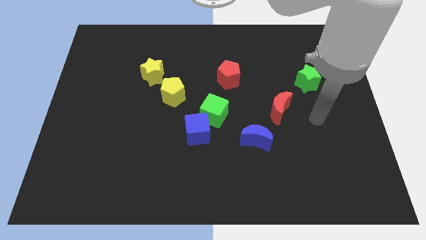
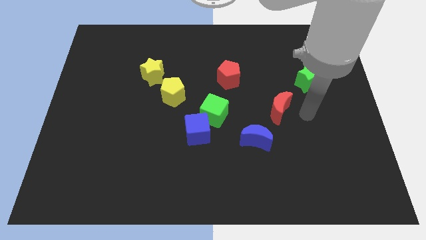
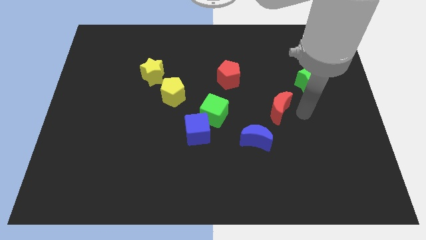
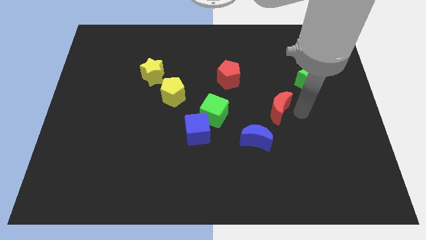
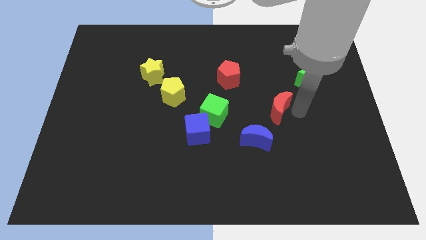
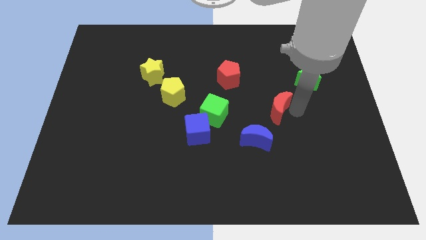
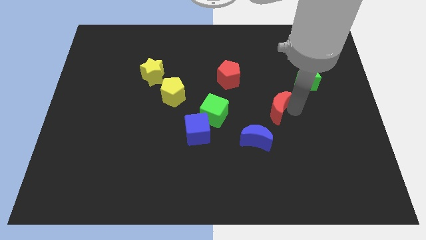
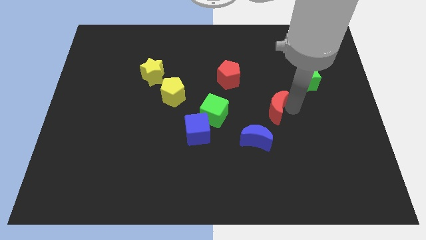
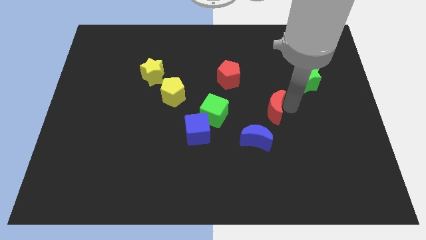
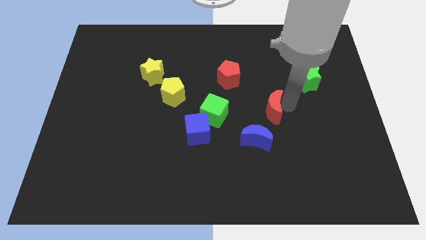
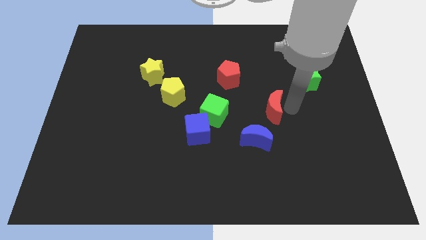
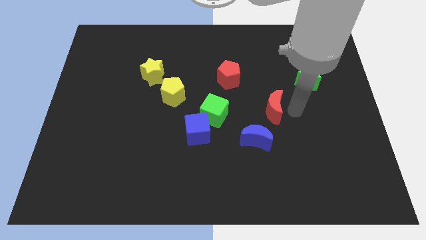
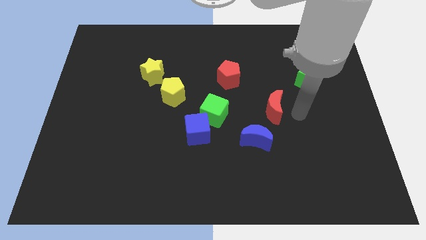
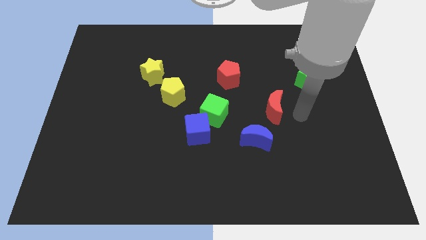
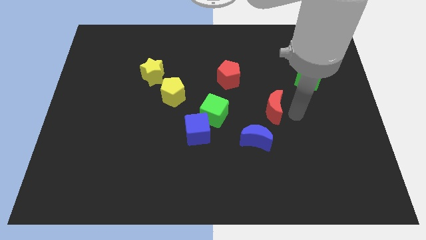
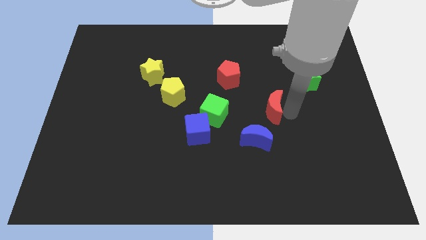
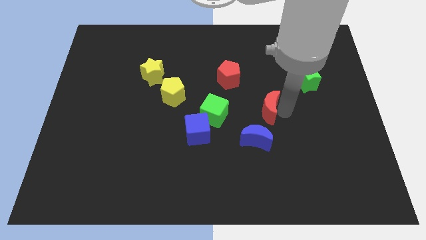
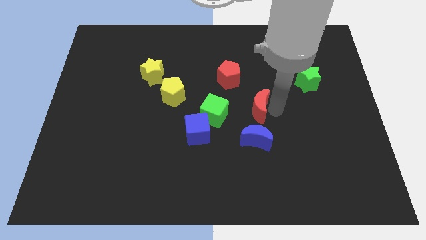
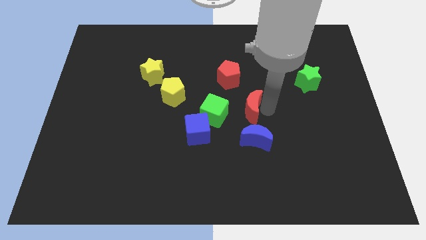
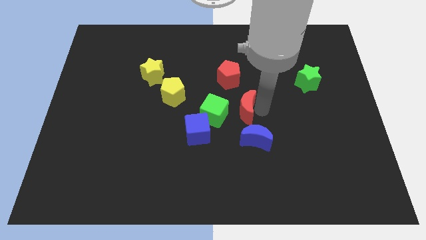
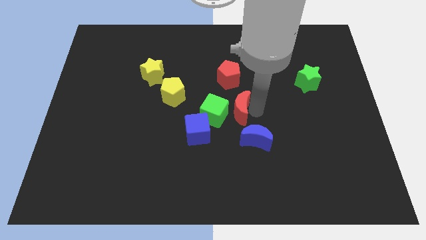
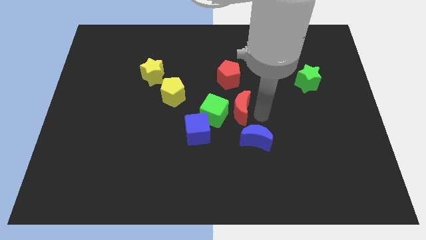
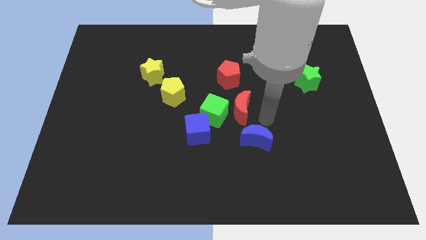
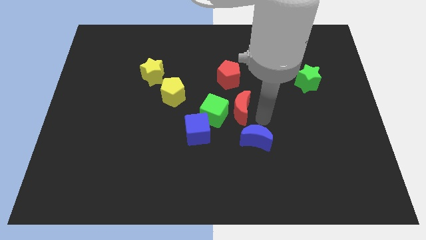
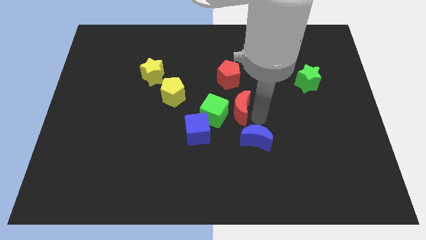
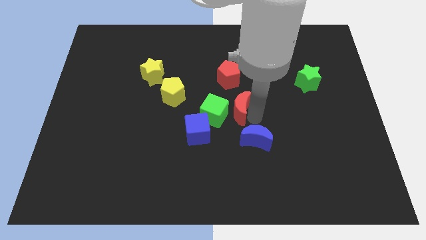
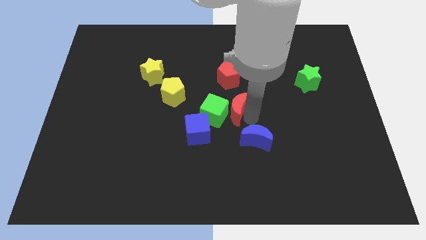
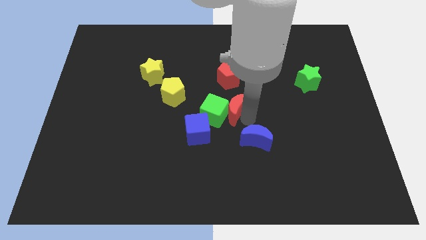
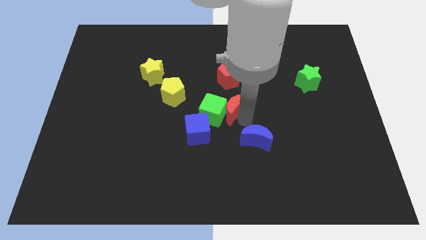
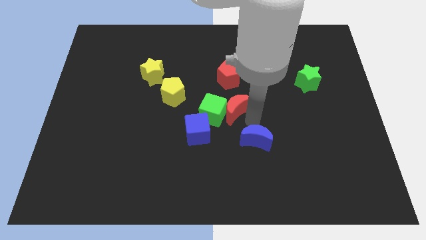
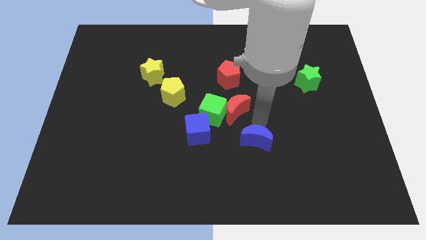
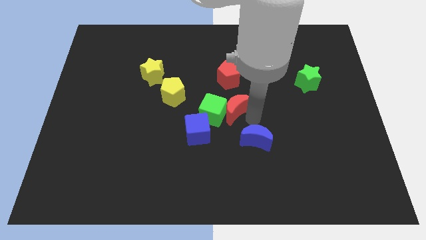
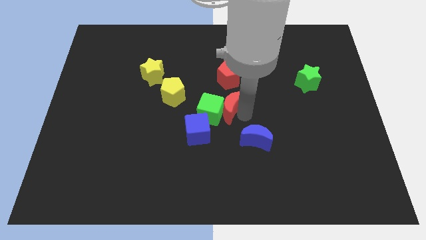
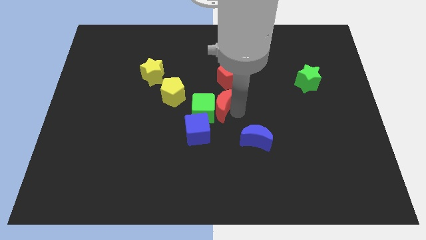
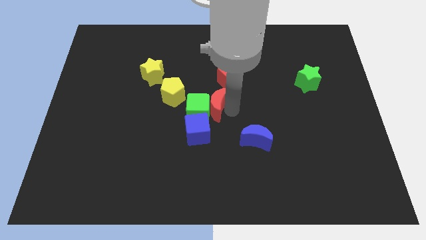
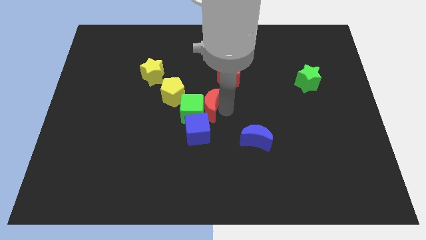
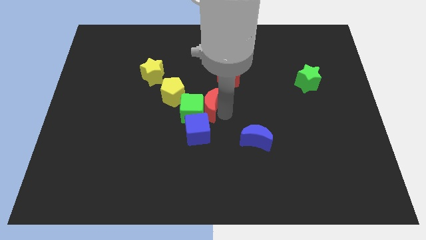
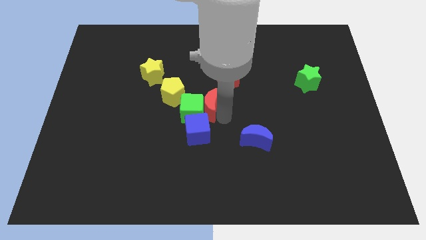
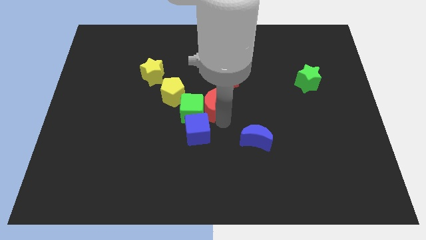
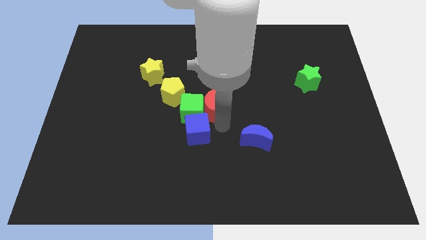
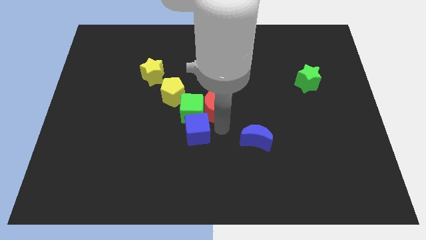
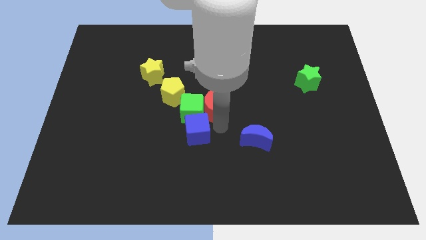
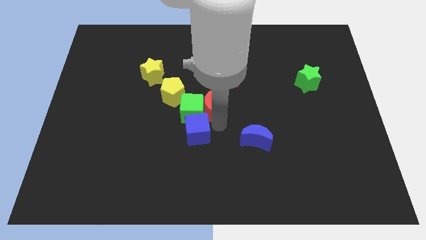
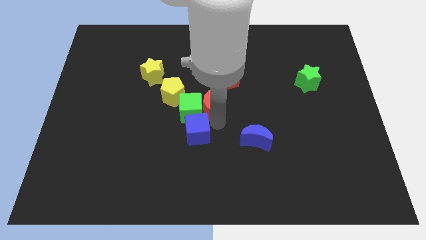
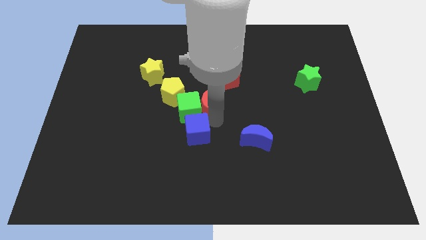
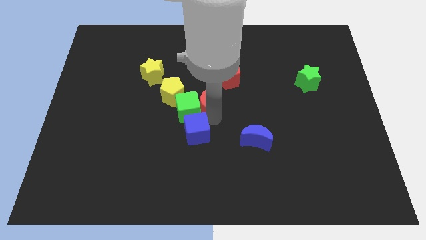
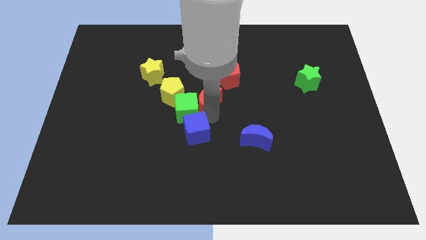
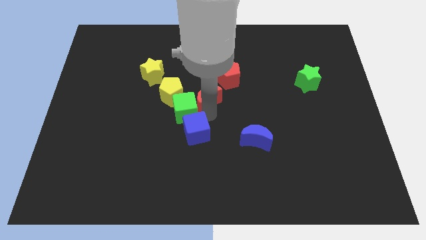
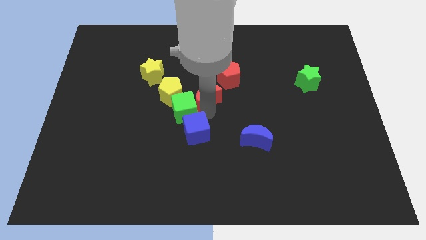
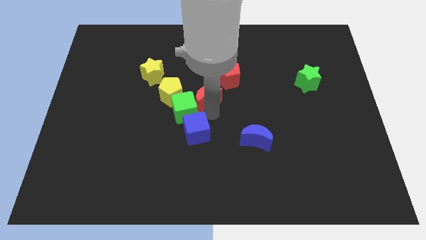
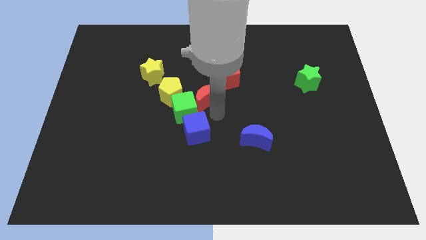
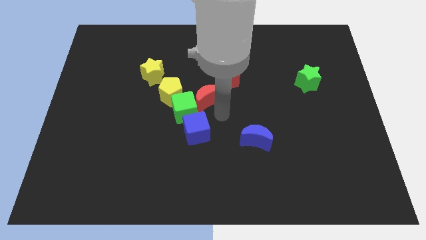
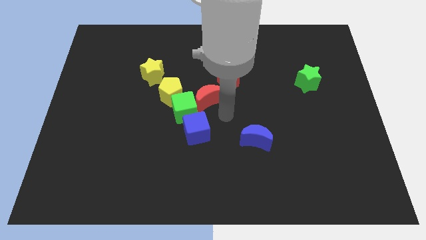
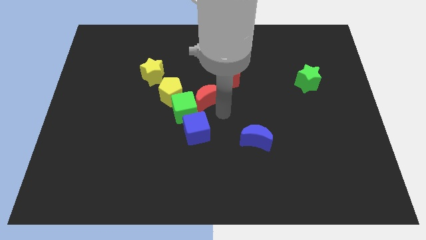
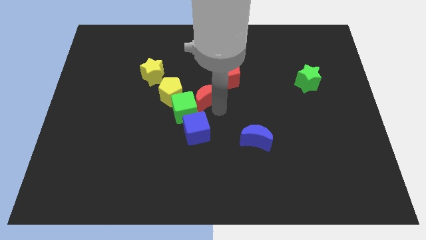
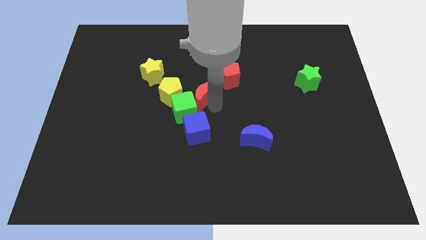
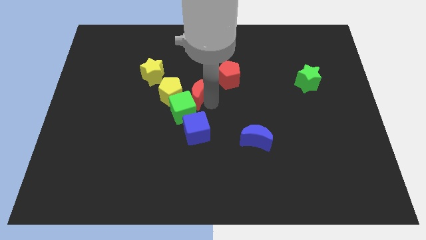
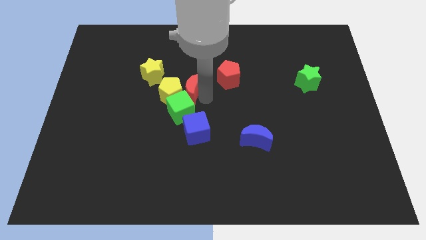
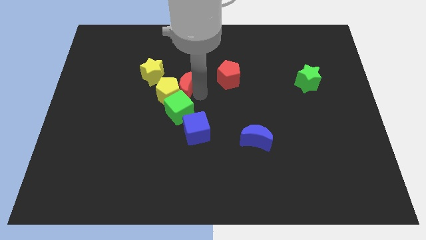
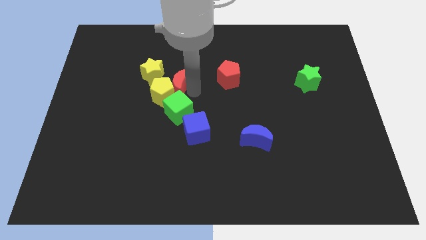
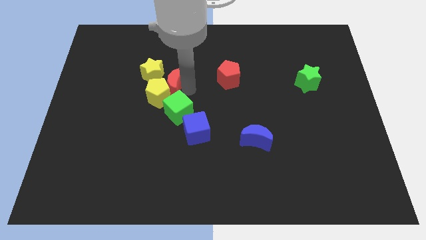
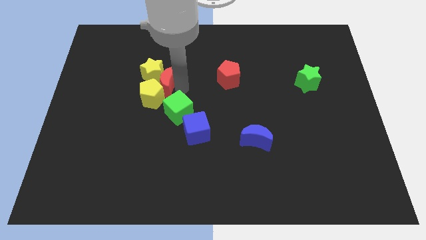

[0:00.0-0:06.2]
slide the red moon towards the yellow star

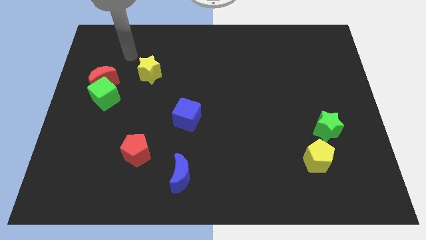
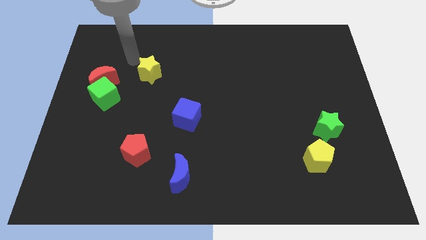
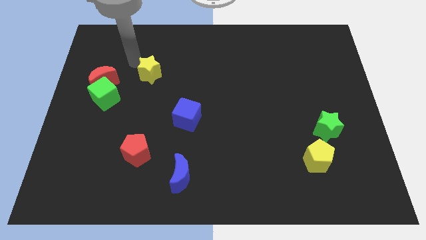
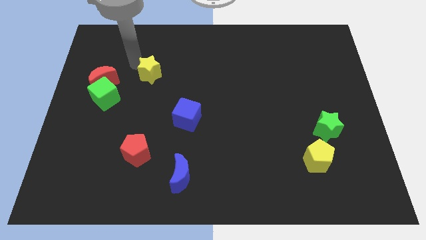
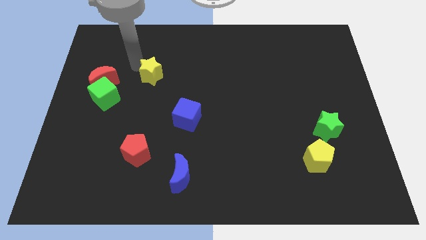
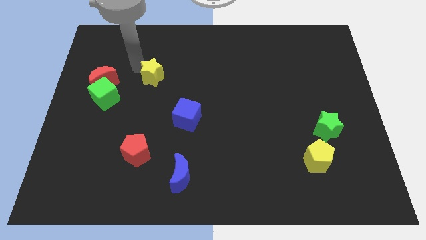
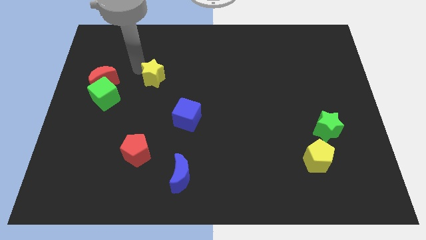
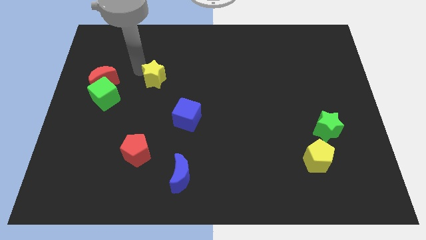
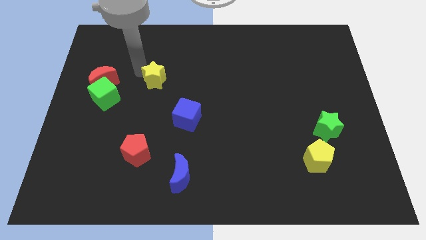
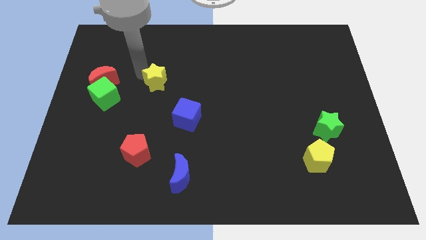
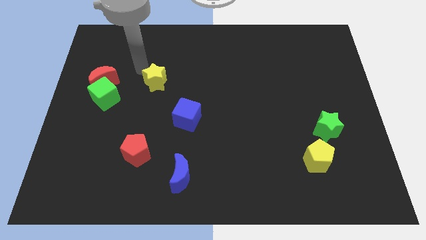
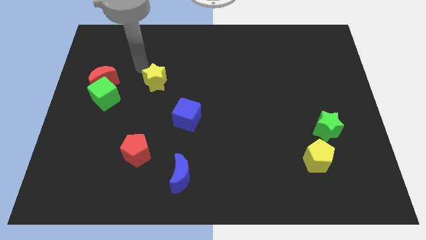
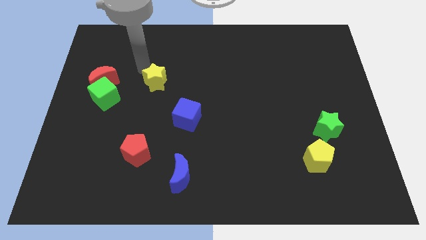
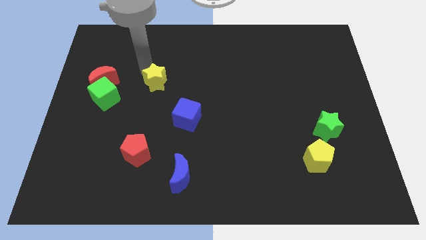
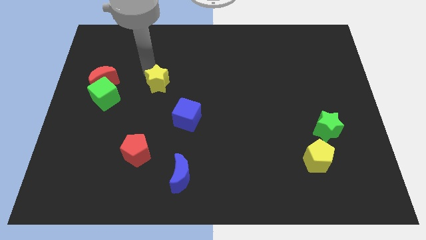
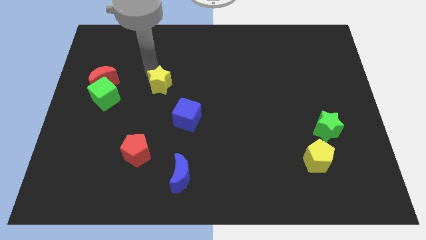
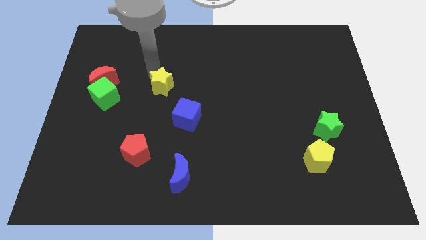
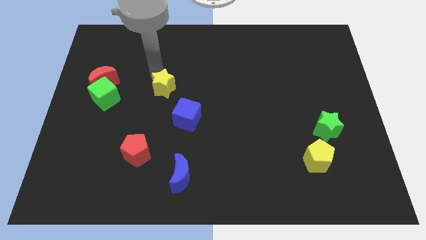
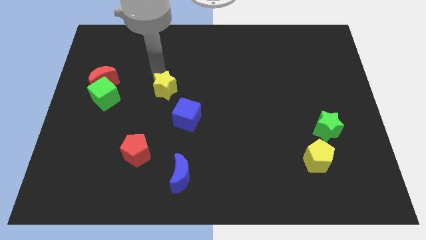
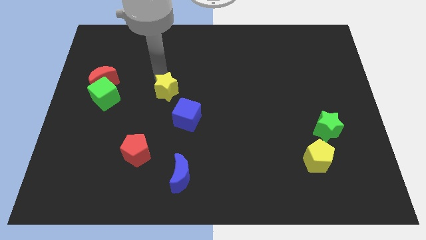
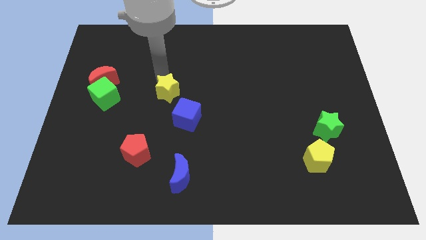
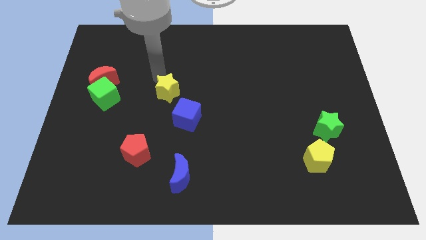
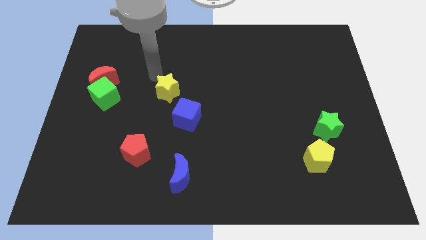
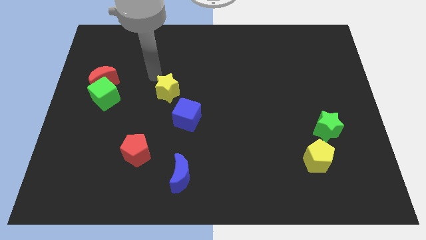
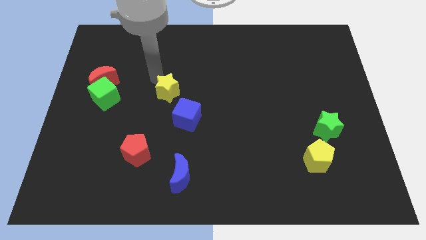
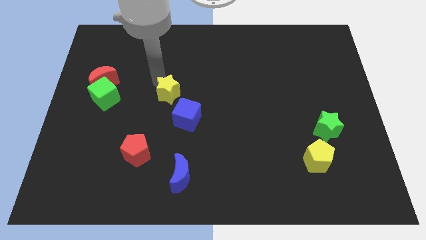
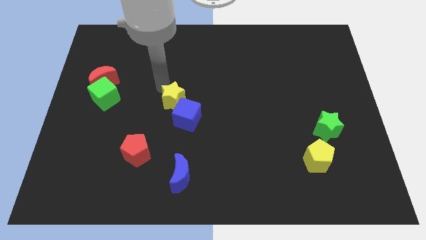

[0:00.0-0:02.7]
push the yellow star towards the blue cube
